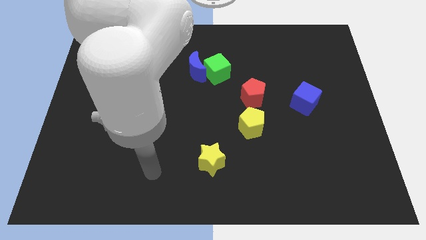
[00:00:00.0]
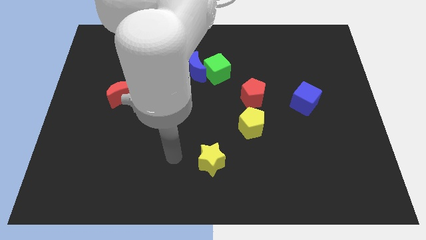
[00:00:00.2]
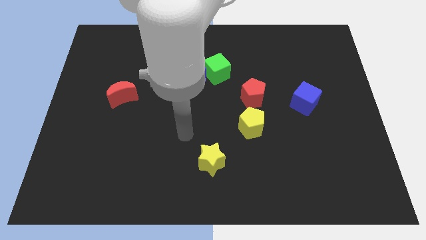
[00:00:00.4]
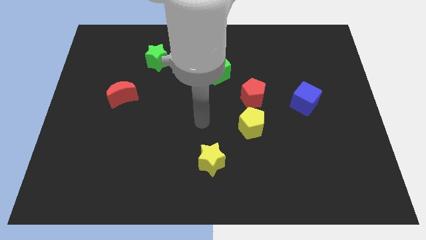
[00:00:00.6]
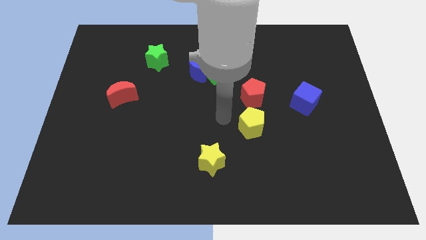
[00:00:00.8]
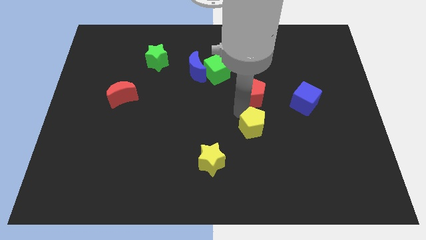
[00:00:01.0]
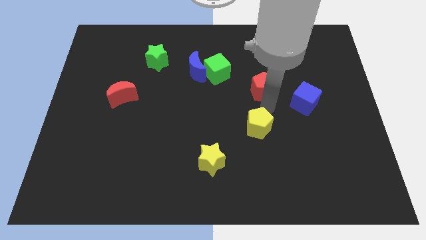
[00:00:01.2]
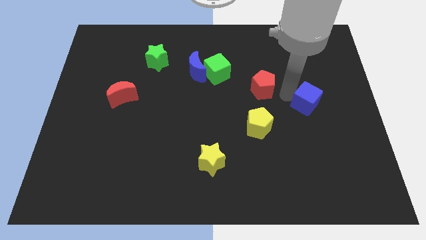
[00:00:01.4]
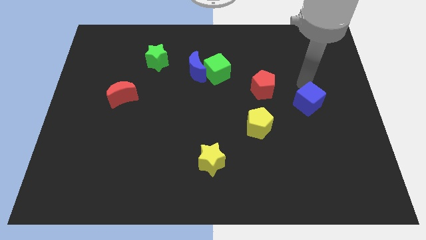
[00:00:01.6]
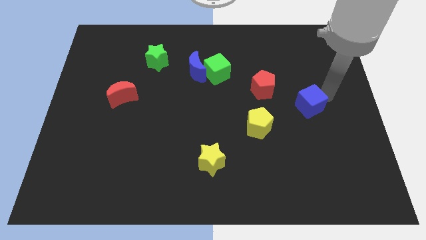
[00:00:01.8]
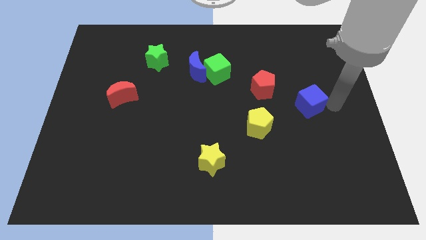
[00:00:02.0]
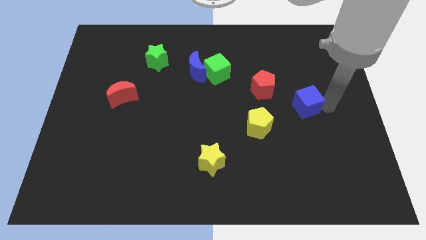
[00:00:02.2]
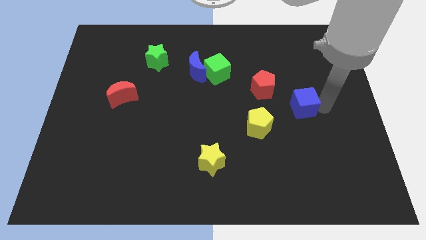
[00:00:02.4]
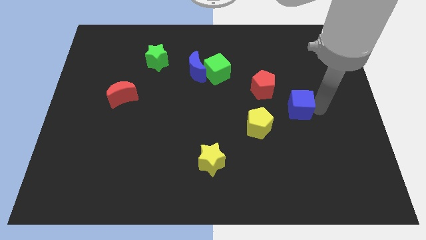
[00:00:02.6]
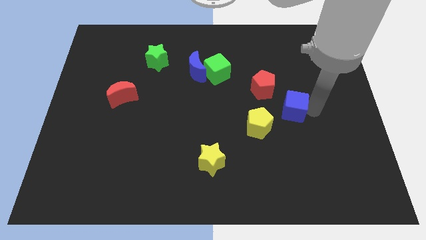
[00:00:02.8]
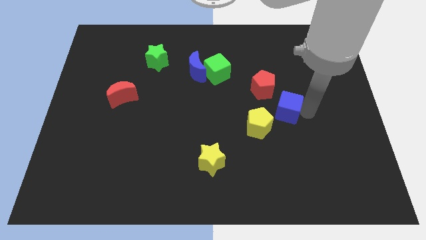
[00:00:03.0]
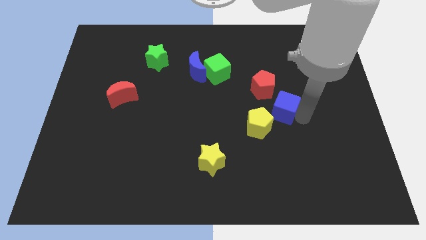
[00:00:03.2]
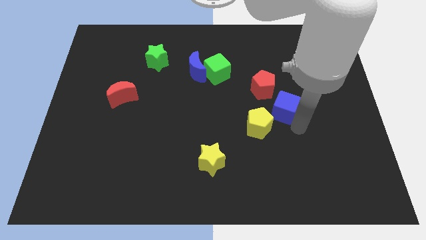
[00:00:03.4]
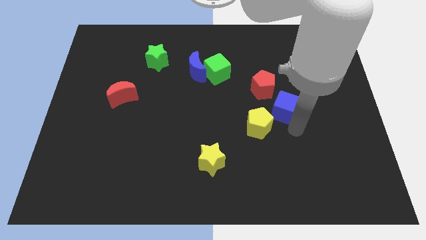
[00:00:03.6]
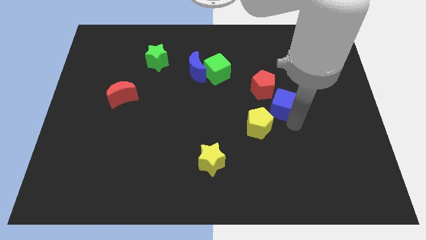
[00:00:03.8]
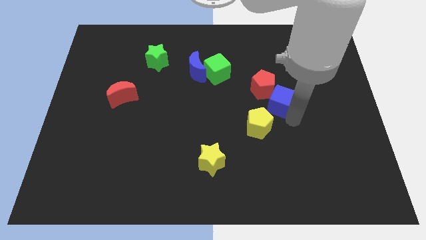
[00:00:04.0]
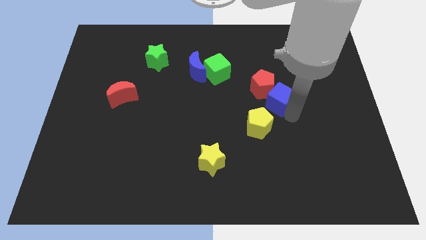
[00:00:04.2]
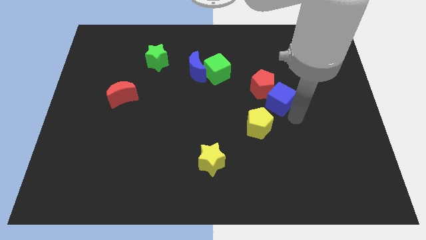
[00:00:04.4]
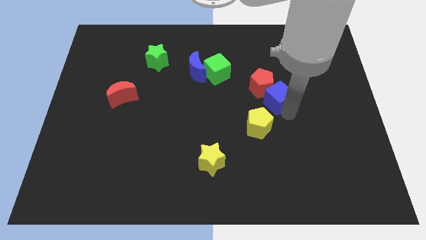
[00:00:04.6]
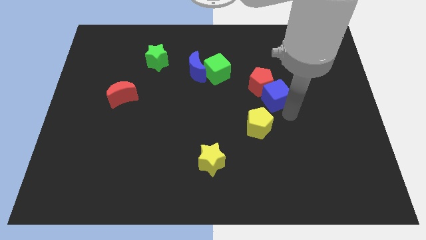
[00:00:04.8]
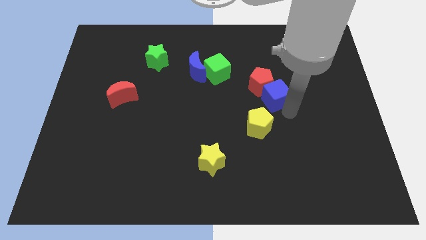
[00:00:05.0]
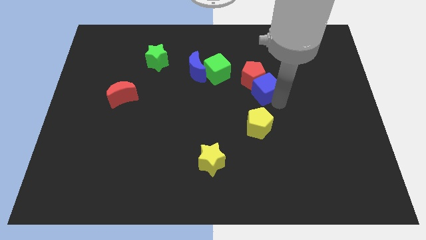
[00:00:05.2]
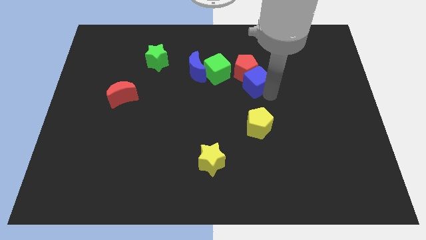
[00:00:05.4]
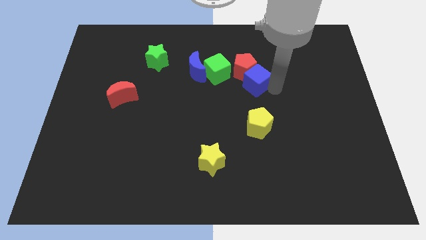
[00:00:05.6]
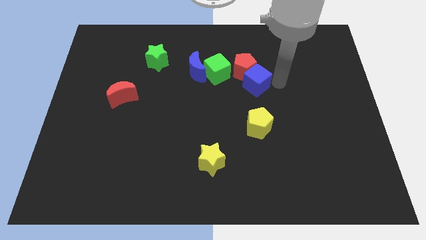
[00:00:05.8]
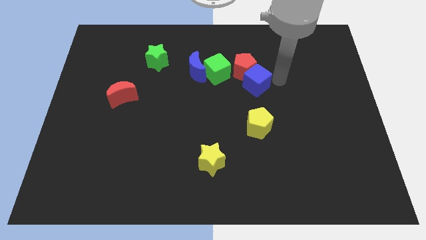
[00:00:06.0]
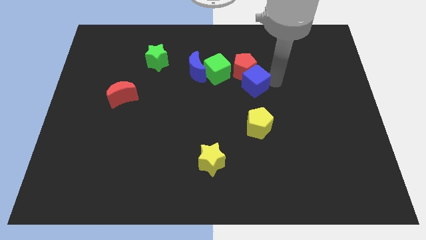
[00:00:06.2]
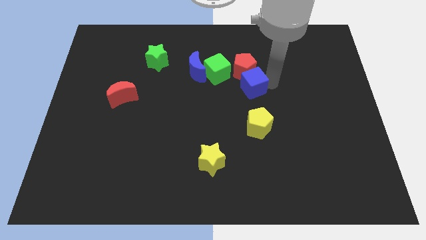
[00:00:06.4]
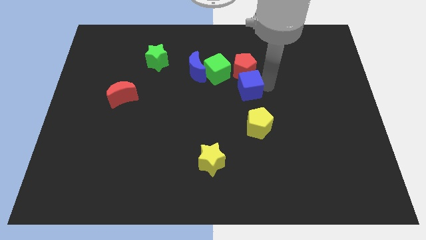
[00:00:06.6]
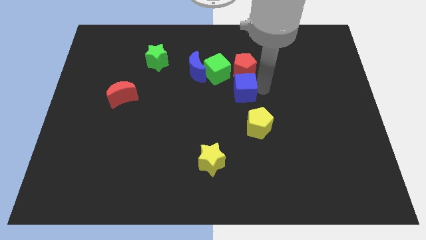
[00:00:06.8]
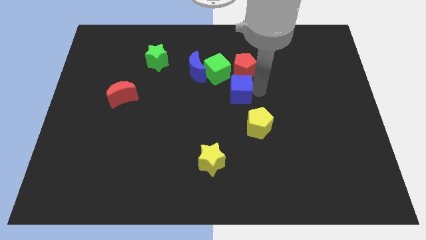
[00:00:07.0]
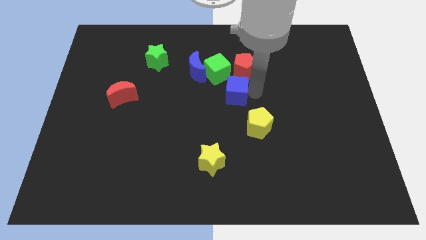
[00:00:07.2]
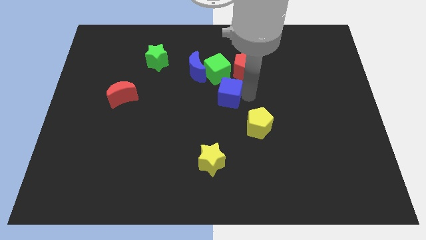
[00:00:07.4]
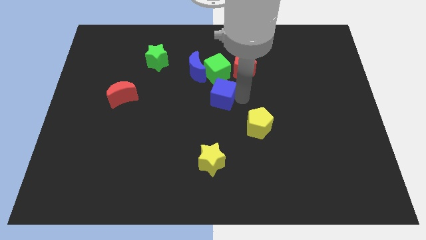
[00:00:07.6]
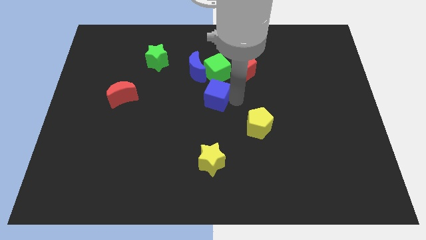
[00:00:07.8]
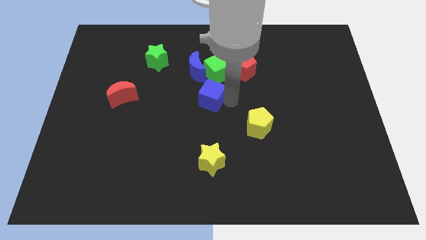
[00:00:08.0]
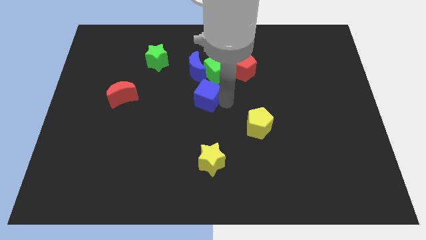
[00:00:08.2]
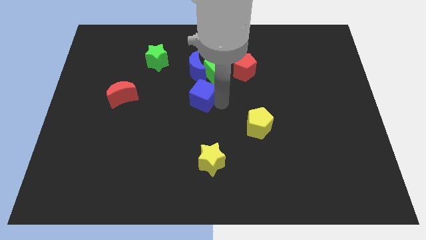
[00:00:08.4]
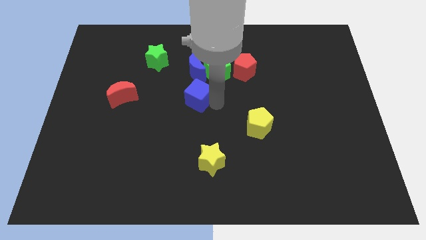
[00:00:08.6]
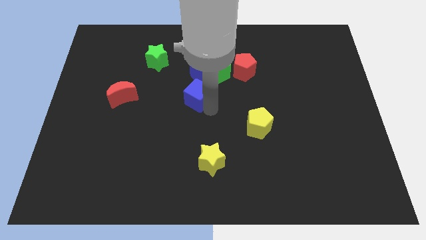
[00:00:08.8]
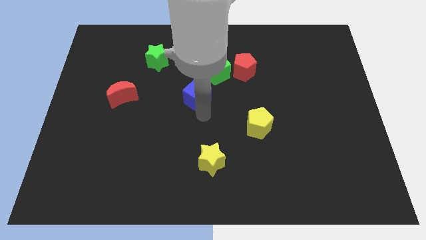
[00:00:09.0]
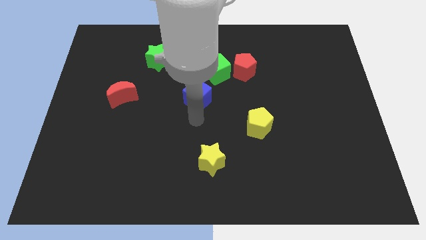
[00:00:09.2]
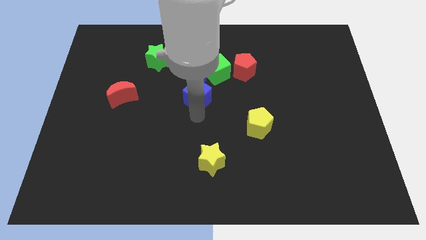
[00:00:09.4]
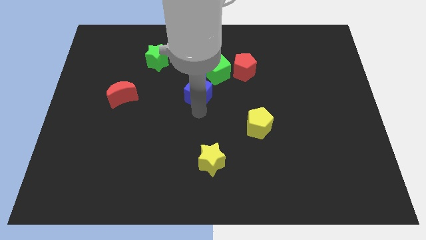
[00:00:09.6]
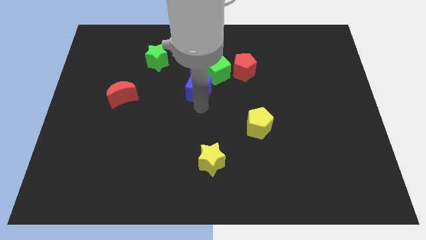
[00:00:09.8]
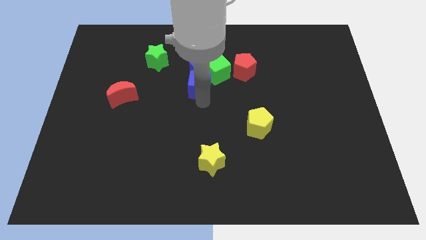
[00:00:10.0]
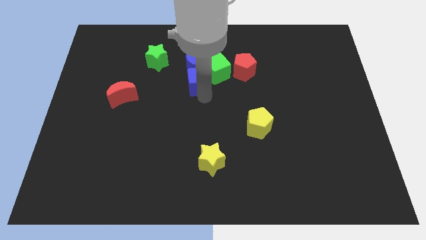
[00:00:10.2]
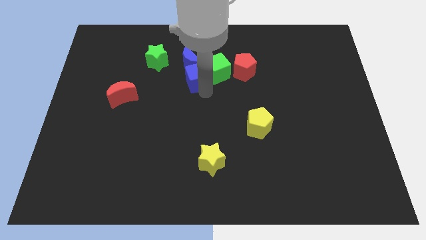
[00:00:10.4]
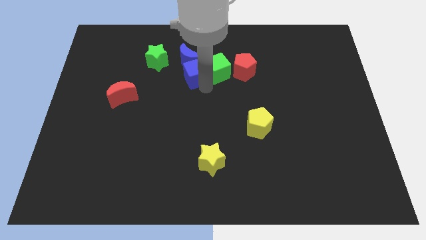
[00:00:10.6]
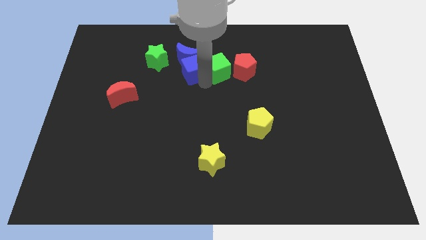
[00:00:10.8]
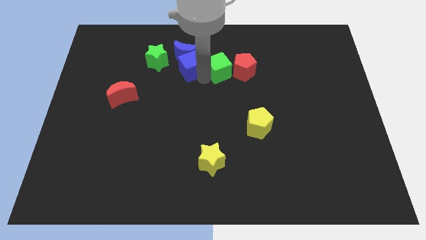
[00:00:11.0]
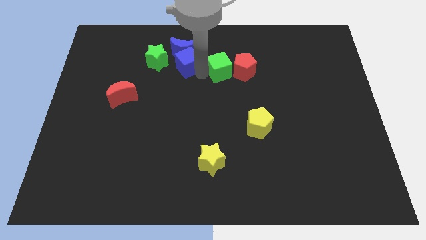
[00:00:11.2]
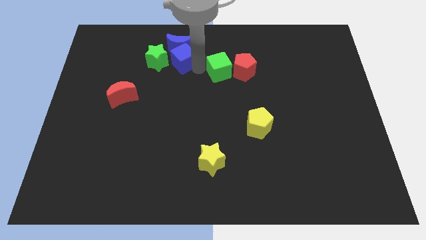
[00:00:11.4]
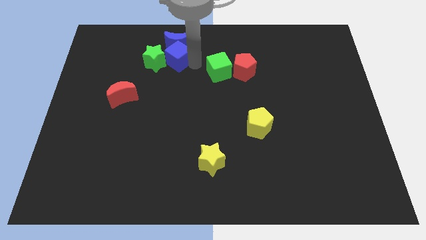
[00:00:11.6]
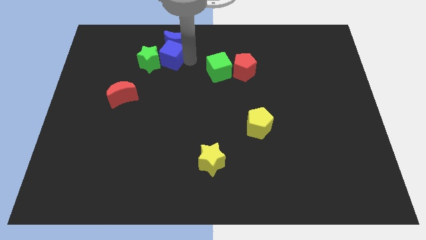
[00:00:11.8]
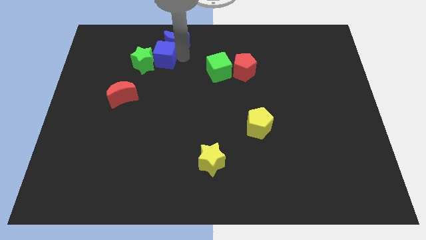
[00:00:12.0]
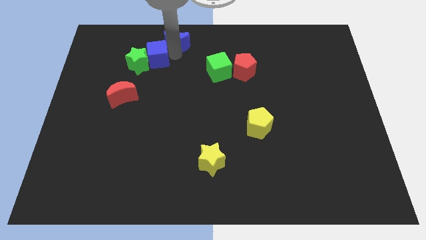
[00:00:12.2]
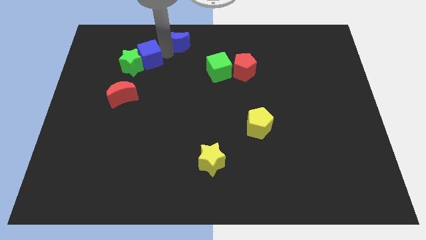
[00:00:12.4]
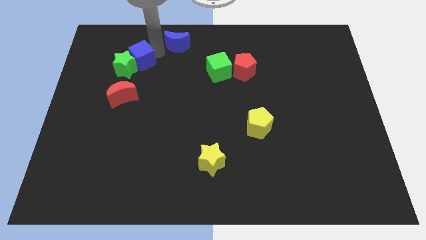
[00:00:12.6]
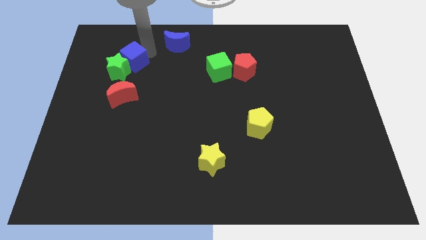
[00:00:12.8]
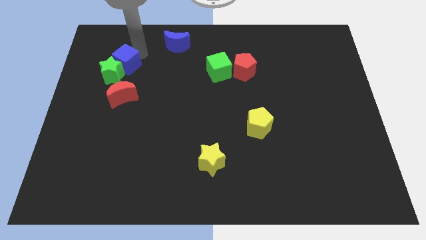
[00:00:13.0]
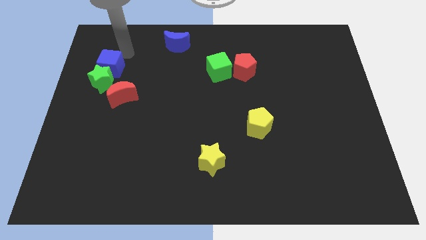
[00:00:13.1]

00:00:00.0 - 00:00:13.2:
move the blue cube to the top left side of the red moon
